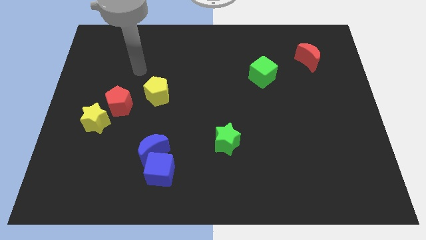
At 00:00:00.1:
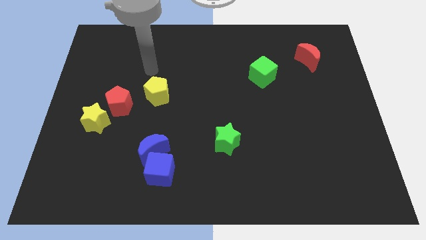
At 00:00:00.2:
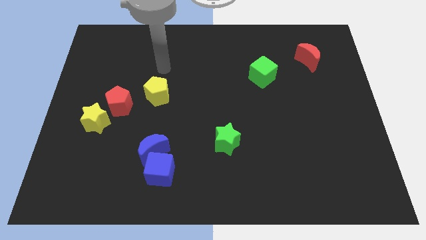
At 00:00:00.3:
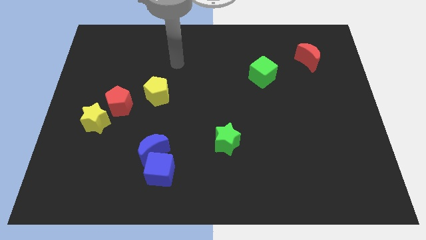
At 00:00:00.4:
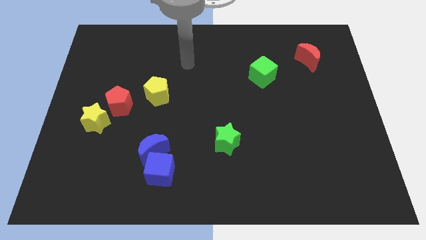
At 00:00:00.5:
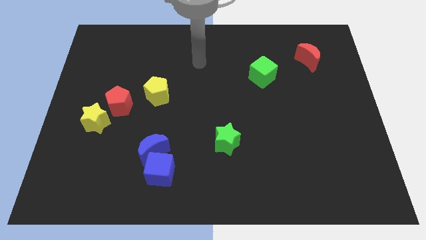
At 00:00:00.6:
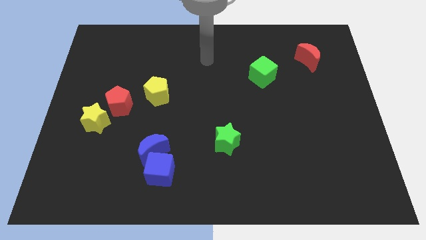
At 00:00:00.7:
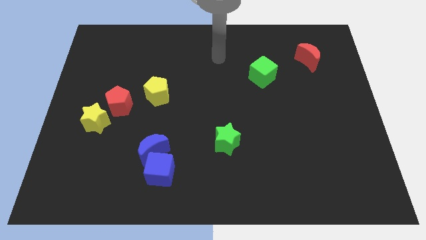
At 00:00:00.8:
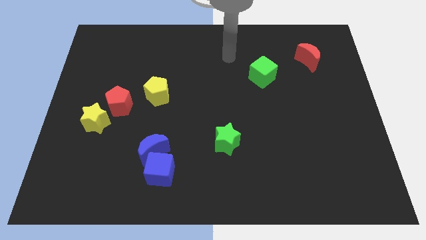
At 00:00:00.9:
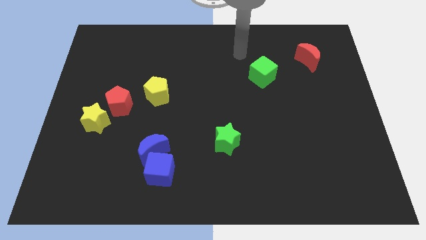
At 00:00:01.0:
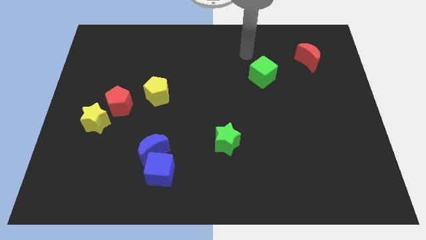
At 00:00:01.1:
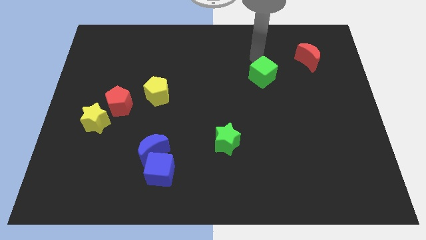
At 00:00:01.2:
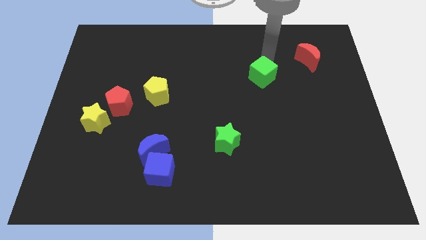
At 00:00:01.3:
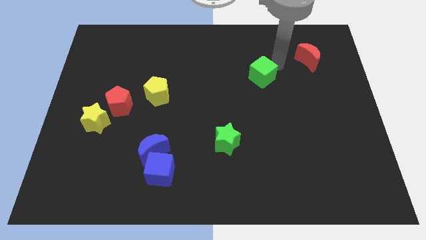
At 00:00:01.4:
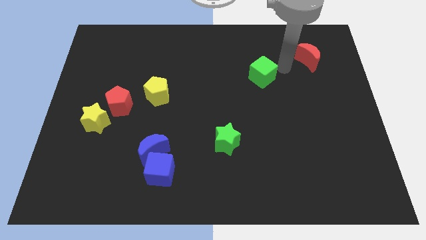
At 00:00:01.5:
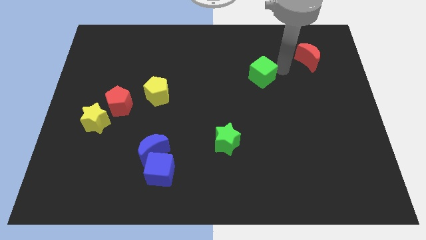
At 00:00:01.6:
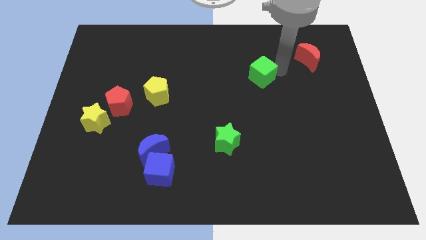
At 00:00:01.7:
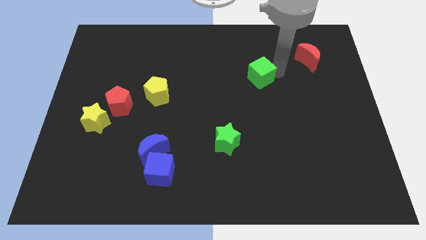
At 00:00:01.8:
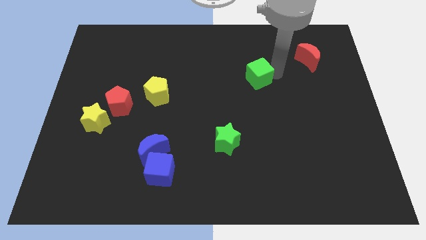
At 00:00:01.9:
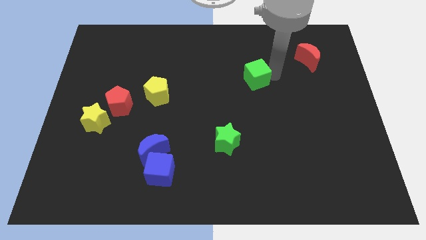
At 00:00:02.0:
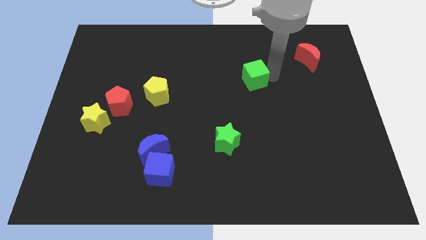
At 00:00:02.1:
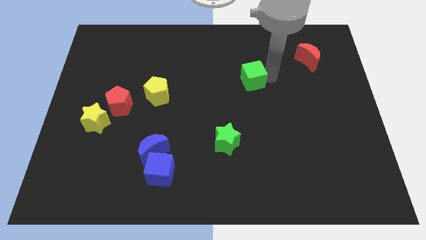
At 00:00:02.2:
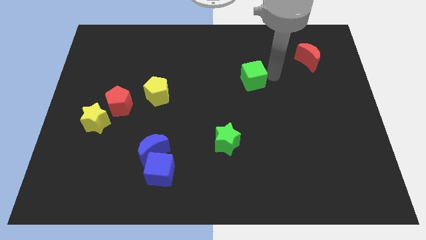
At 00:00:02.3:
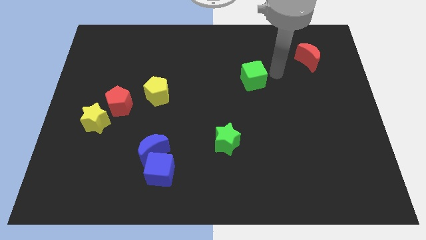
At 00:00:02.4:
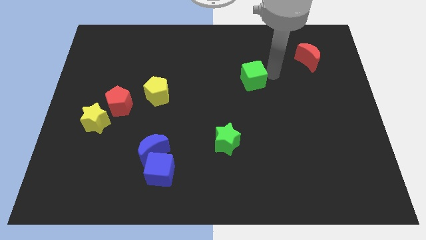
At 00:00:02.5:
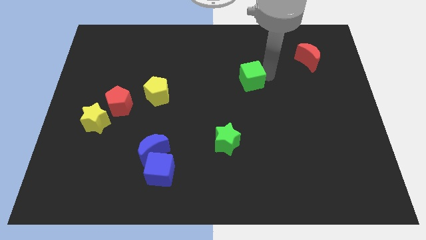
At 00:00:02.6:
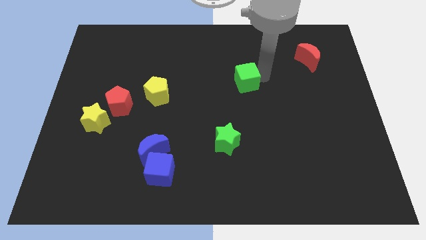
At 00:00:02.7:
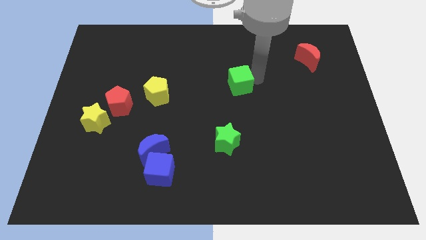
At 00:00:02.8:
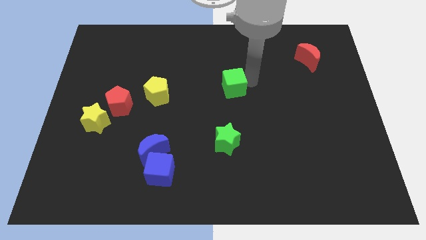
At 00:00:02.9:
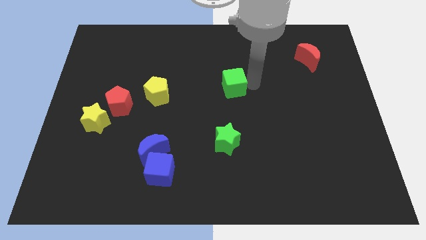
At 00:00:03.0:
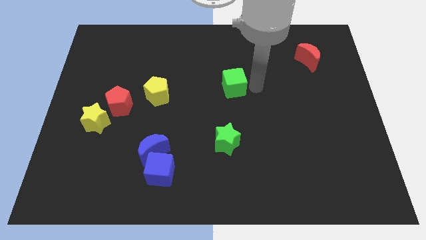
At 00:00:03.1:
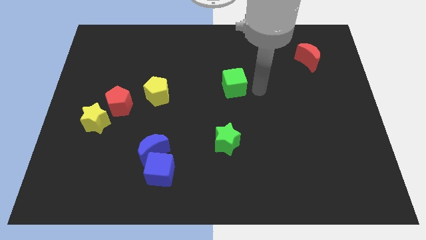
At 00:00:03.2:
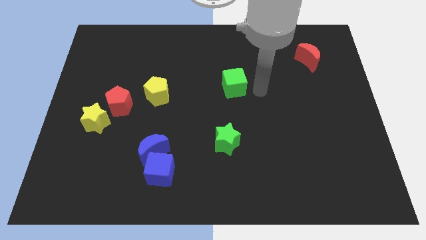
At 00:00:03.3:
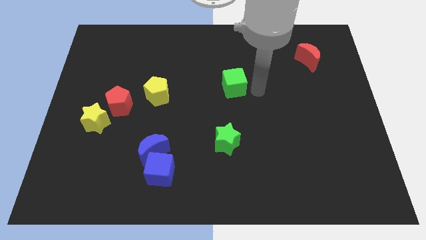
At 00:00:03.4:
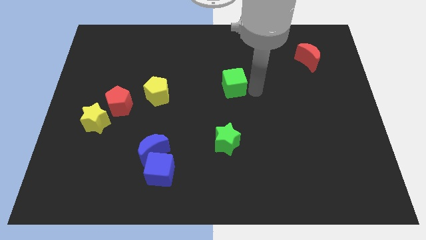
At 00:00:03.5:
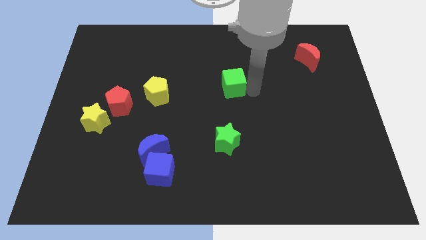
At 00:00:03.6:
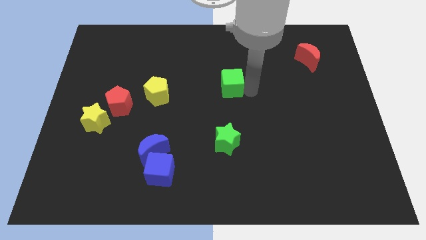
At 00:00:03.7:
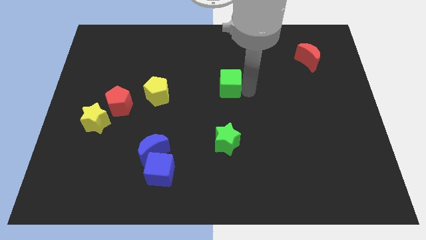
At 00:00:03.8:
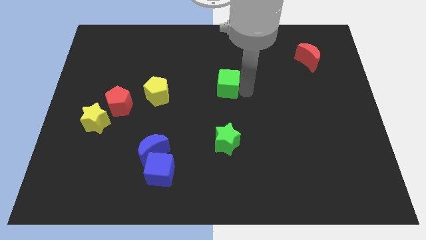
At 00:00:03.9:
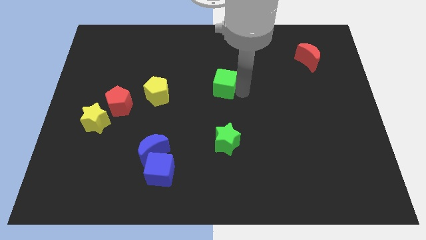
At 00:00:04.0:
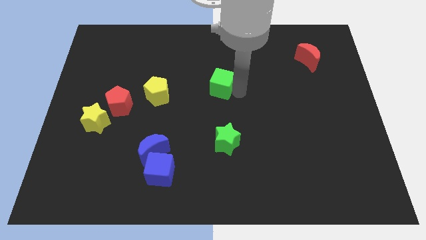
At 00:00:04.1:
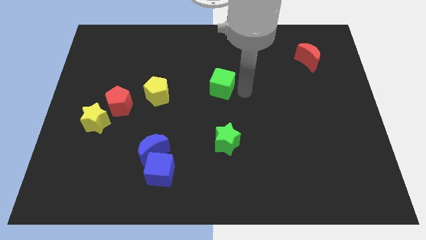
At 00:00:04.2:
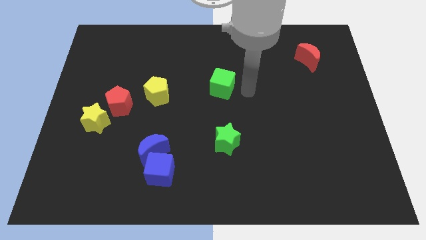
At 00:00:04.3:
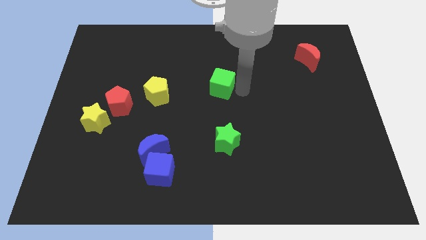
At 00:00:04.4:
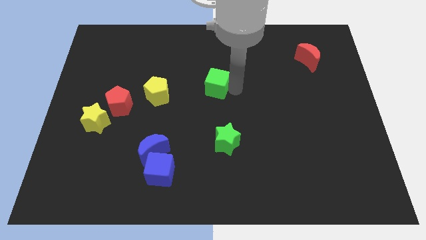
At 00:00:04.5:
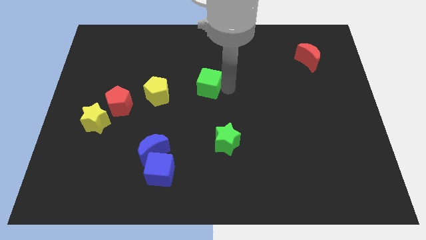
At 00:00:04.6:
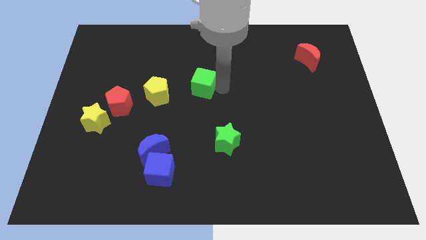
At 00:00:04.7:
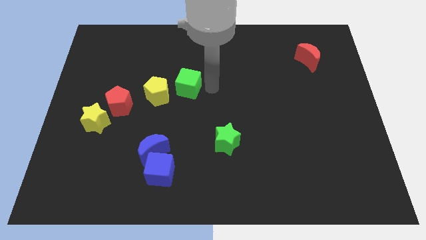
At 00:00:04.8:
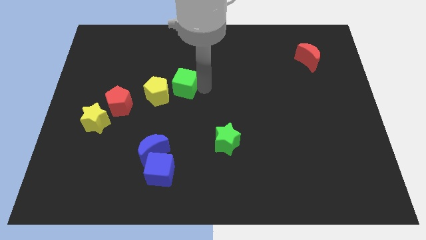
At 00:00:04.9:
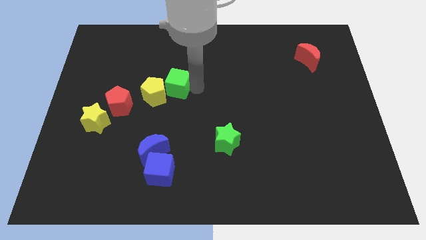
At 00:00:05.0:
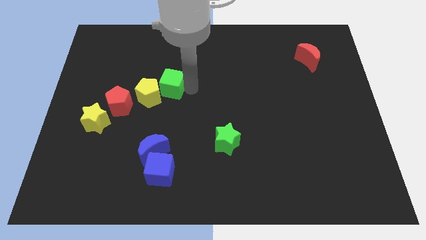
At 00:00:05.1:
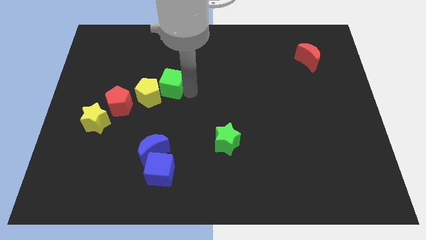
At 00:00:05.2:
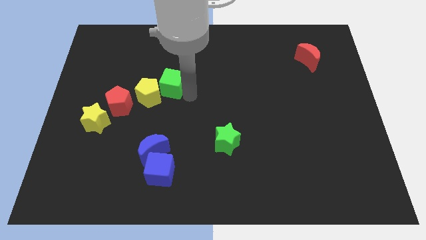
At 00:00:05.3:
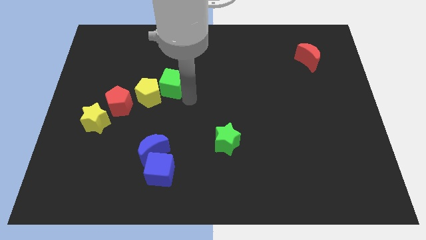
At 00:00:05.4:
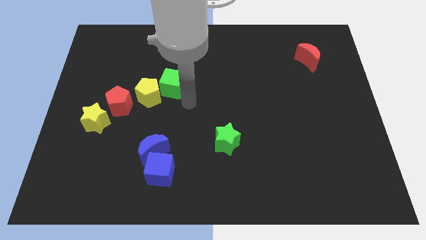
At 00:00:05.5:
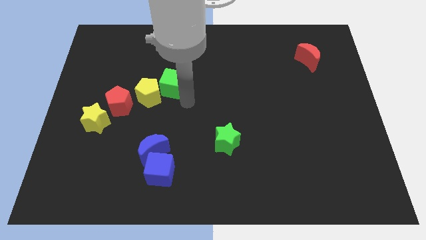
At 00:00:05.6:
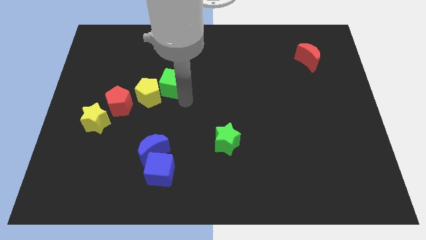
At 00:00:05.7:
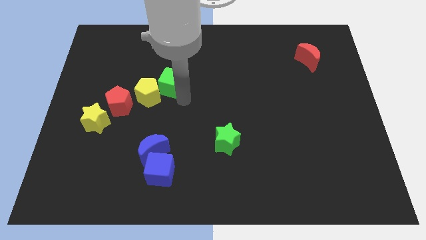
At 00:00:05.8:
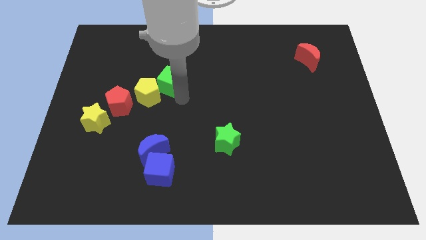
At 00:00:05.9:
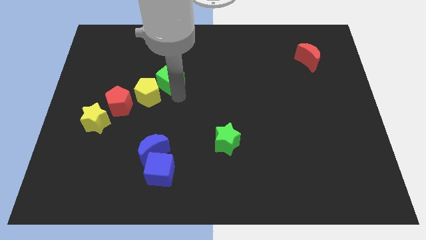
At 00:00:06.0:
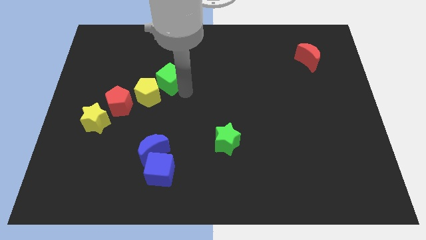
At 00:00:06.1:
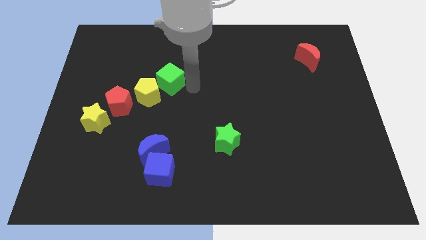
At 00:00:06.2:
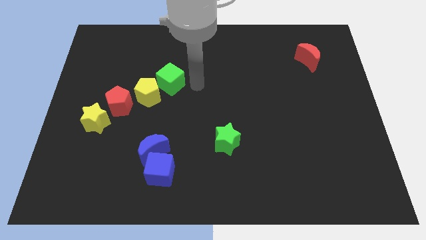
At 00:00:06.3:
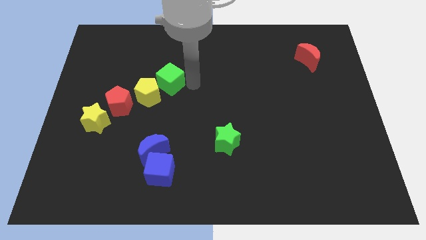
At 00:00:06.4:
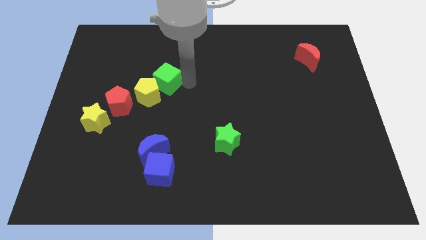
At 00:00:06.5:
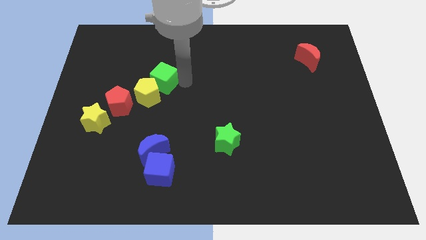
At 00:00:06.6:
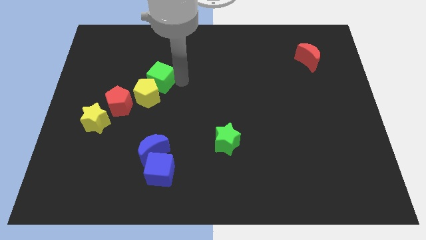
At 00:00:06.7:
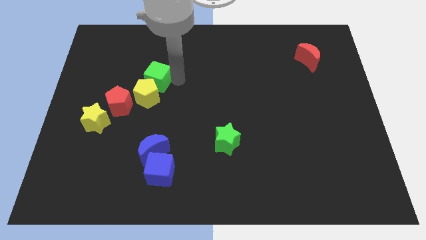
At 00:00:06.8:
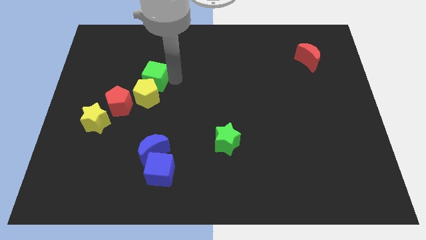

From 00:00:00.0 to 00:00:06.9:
slide the green cube to the top left of the yellow pentagon

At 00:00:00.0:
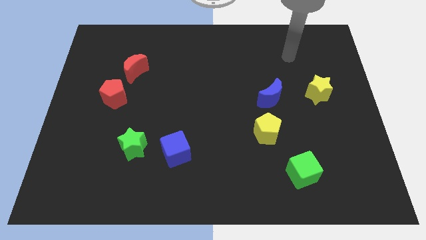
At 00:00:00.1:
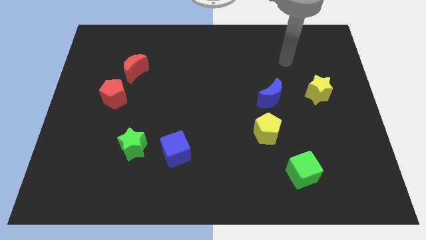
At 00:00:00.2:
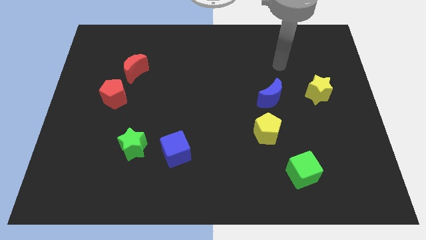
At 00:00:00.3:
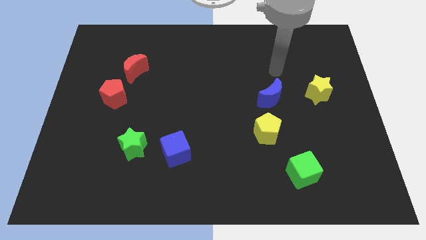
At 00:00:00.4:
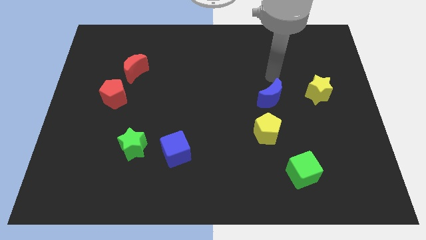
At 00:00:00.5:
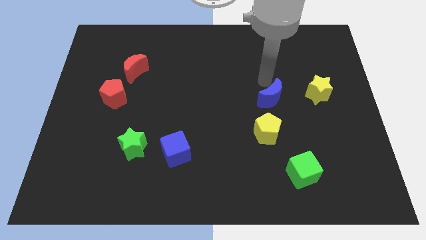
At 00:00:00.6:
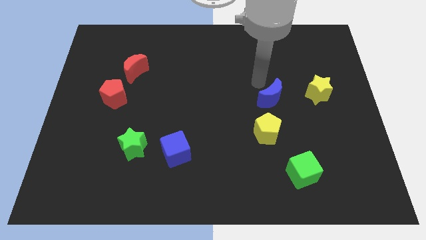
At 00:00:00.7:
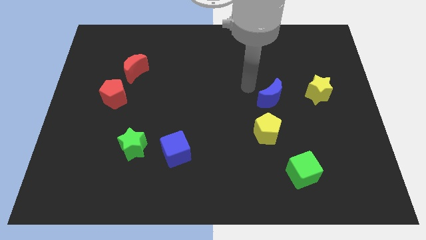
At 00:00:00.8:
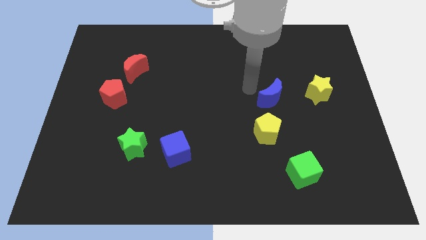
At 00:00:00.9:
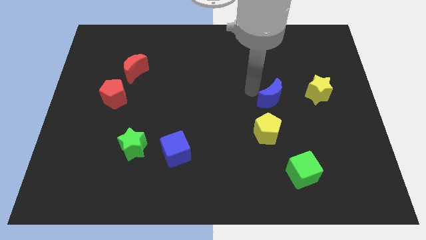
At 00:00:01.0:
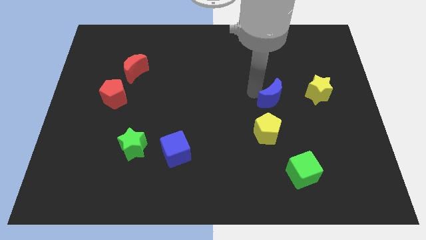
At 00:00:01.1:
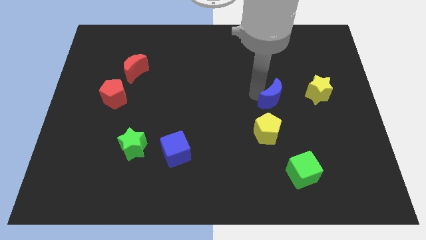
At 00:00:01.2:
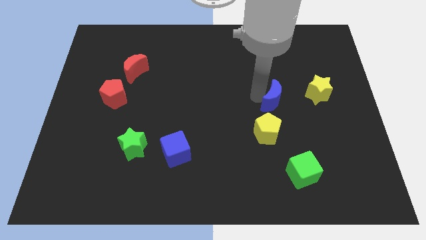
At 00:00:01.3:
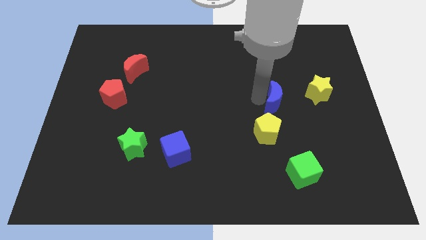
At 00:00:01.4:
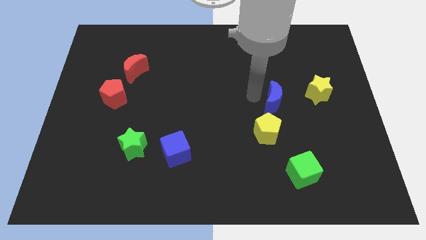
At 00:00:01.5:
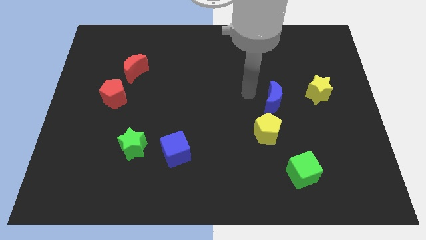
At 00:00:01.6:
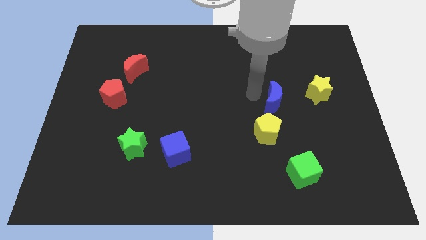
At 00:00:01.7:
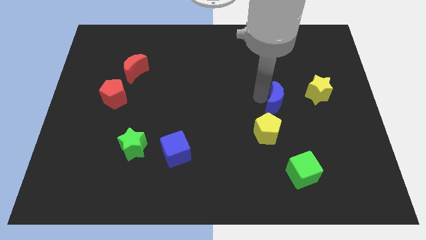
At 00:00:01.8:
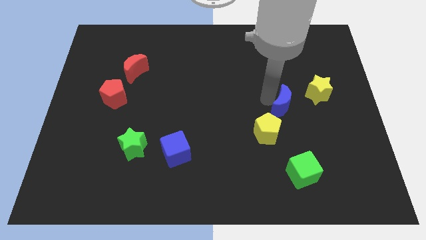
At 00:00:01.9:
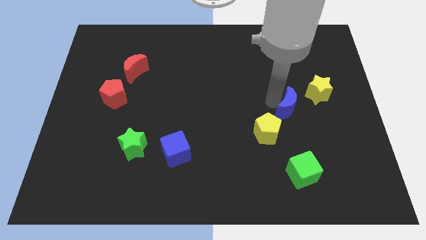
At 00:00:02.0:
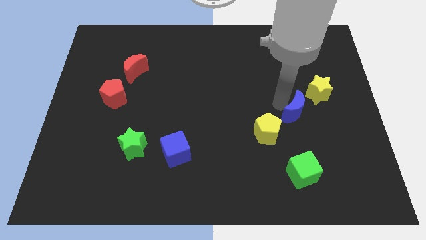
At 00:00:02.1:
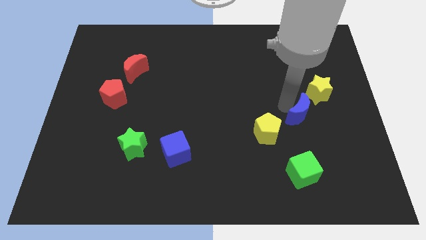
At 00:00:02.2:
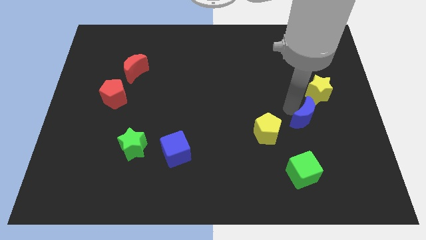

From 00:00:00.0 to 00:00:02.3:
put the blue moon to the bottom of the yellow star
